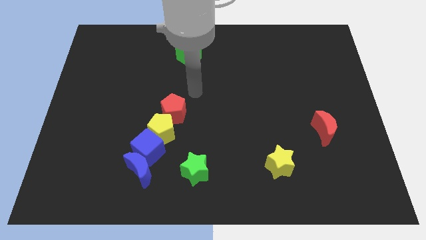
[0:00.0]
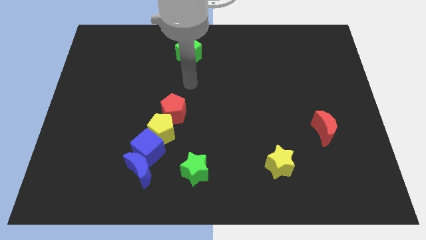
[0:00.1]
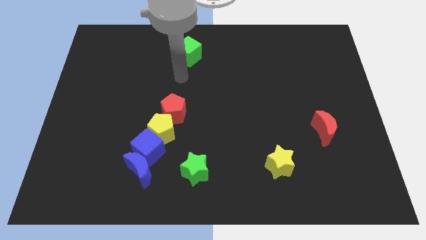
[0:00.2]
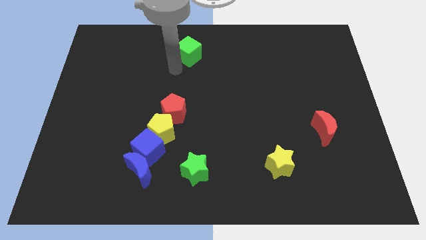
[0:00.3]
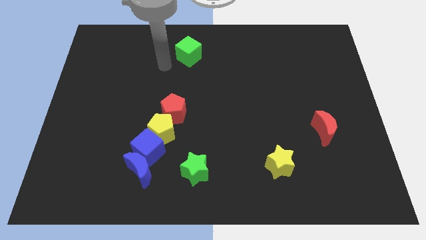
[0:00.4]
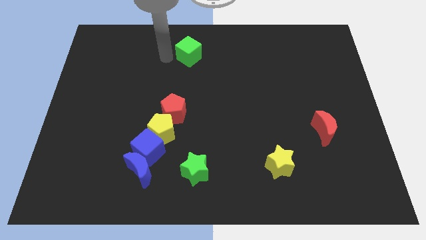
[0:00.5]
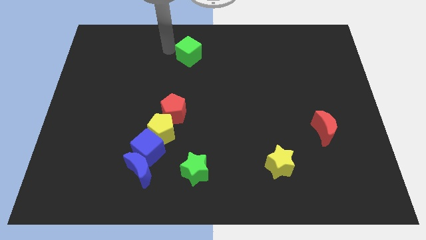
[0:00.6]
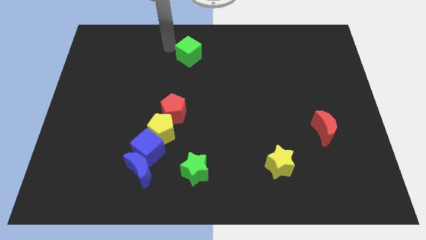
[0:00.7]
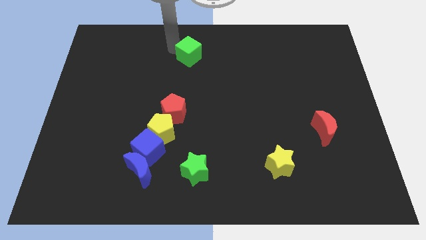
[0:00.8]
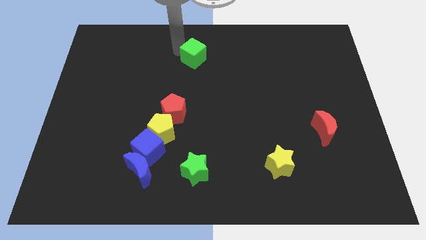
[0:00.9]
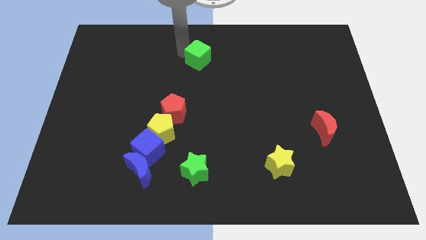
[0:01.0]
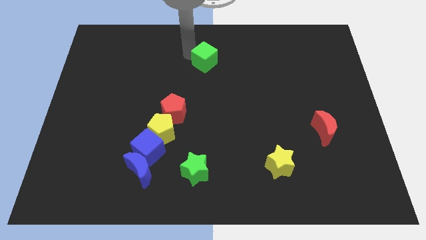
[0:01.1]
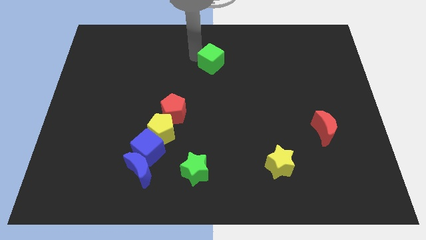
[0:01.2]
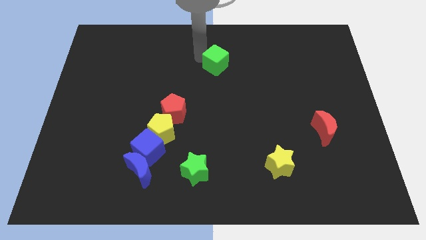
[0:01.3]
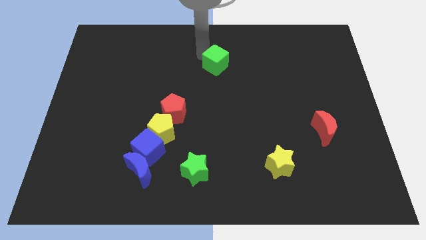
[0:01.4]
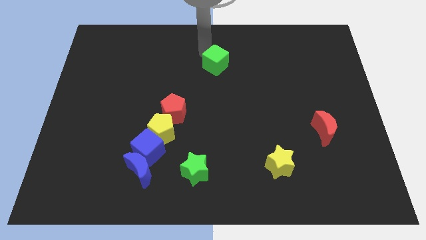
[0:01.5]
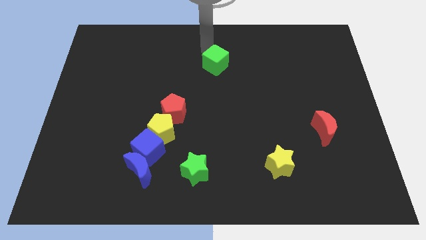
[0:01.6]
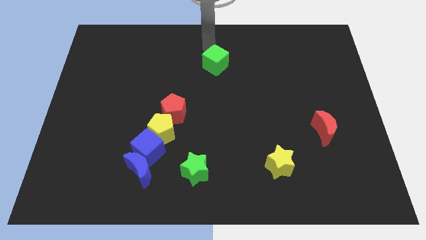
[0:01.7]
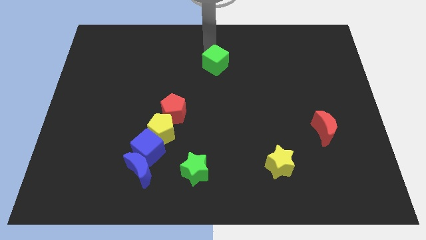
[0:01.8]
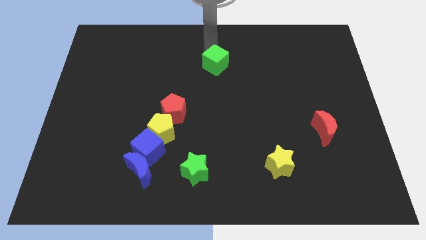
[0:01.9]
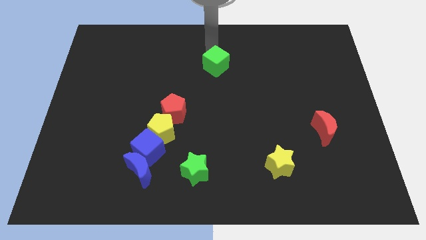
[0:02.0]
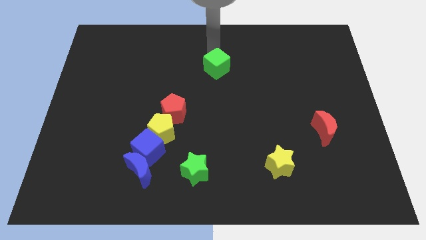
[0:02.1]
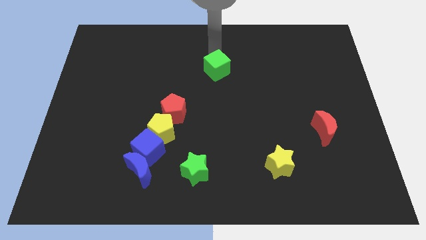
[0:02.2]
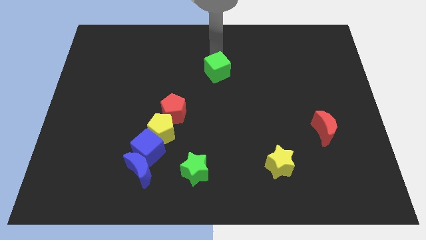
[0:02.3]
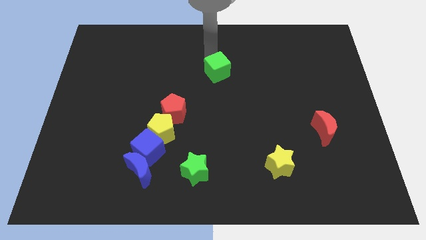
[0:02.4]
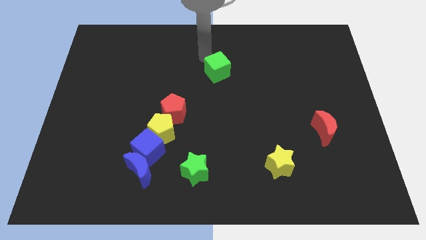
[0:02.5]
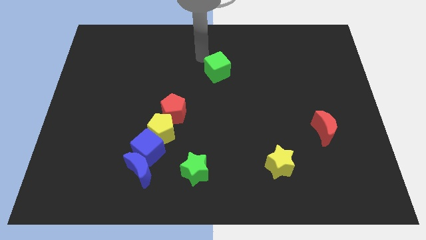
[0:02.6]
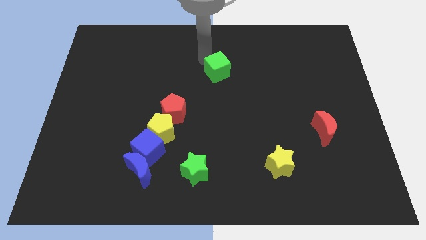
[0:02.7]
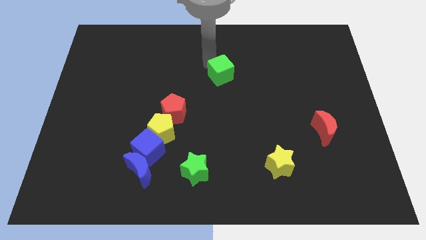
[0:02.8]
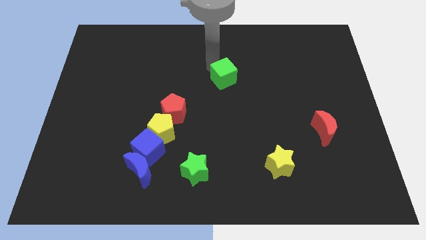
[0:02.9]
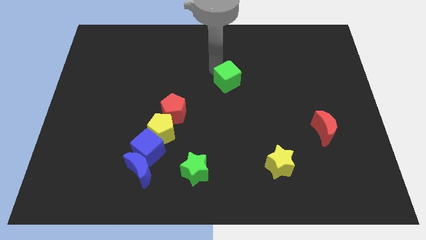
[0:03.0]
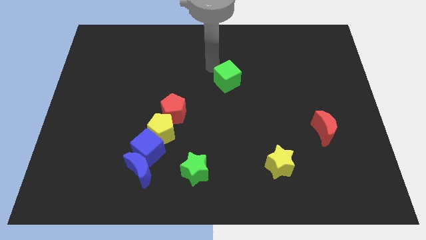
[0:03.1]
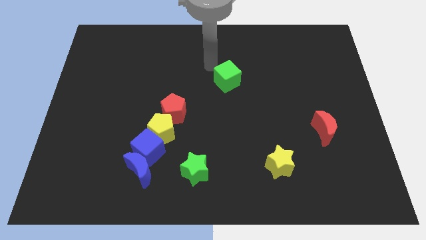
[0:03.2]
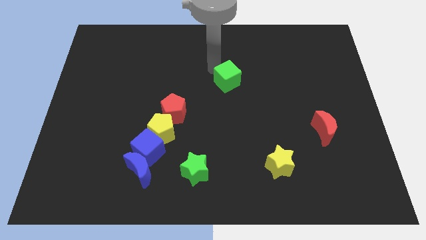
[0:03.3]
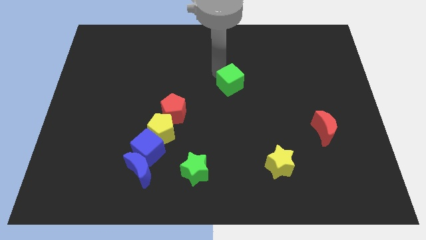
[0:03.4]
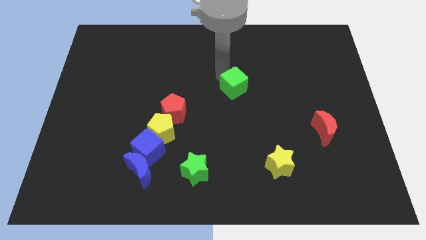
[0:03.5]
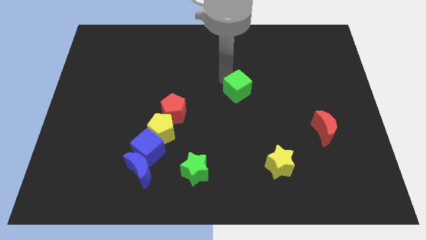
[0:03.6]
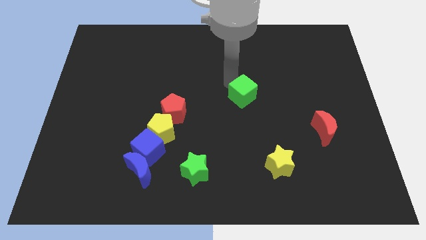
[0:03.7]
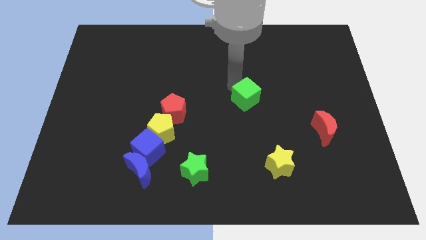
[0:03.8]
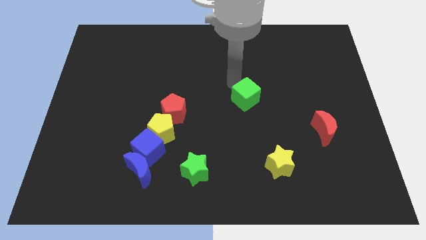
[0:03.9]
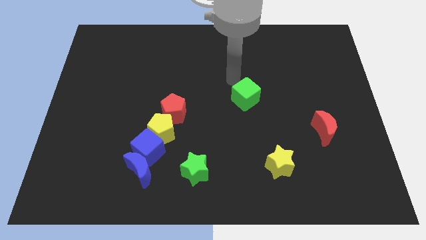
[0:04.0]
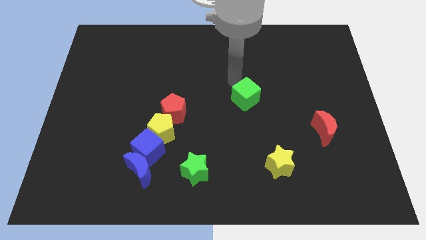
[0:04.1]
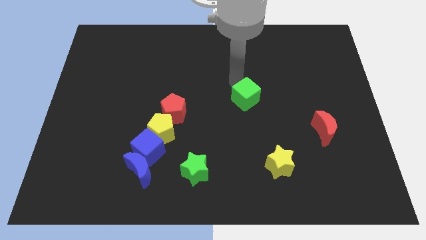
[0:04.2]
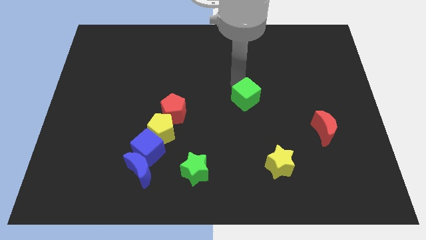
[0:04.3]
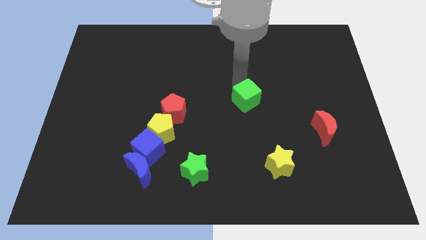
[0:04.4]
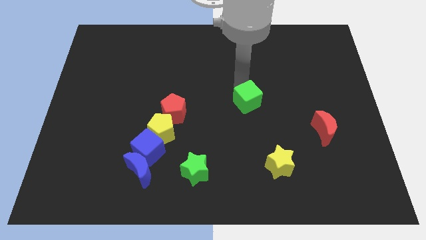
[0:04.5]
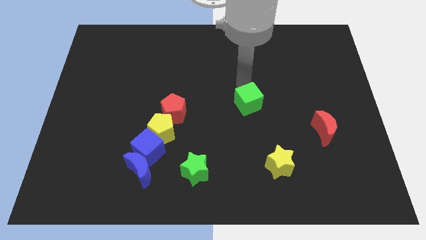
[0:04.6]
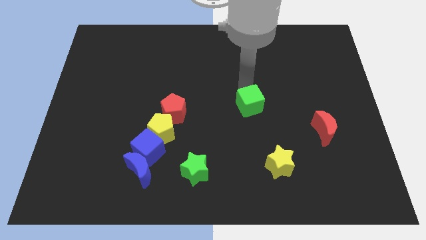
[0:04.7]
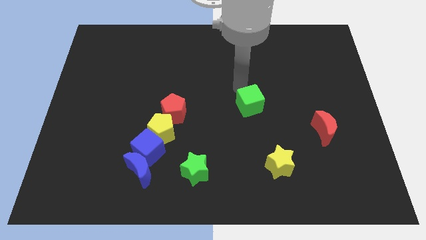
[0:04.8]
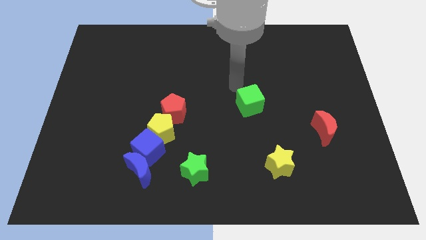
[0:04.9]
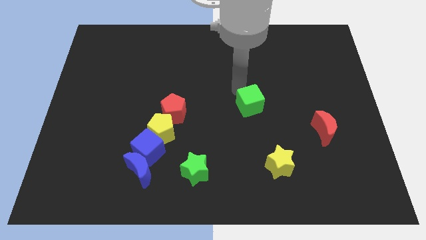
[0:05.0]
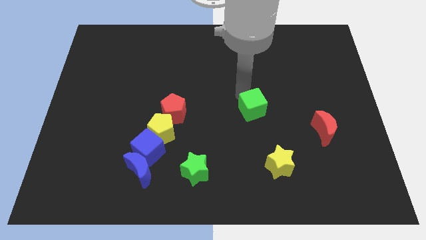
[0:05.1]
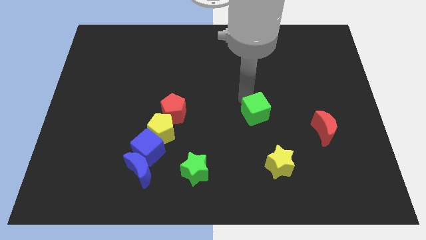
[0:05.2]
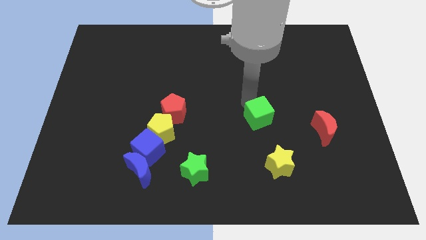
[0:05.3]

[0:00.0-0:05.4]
move the green cube left of the red moon

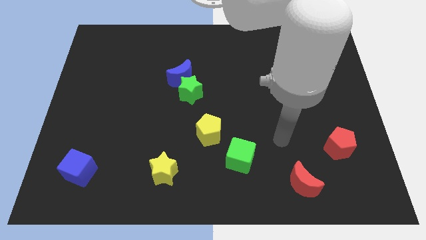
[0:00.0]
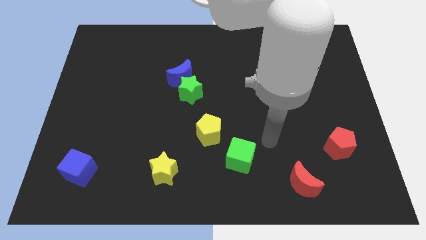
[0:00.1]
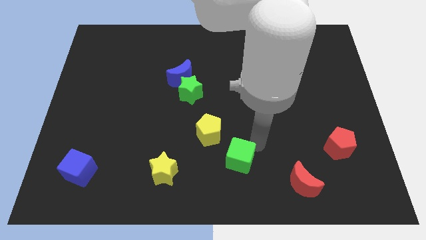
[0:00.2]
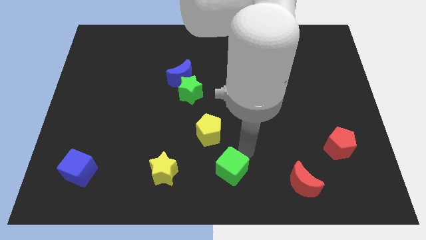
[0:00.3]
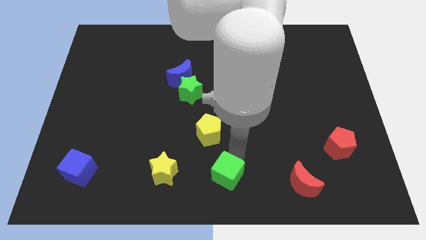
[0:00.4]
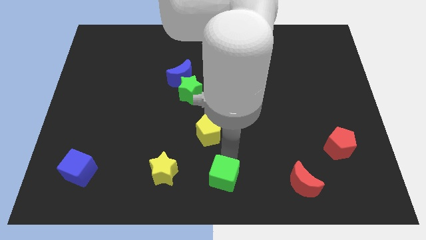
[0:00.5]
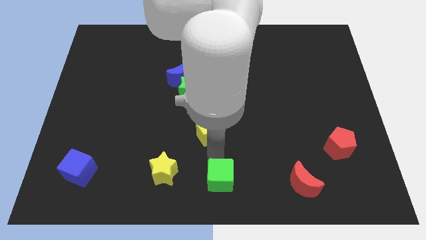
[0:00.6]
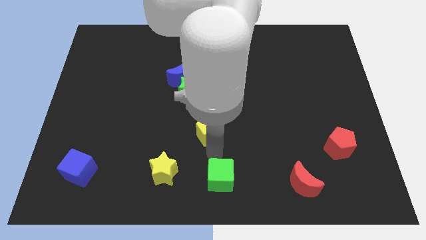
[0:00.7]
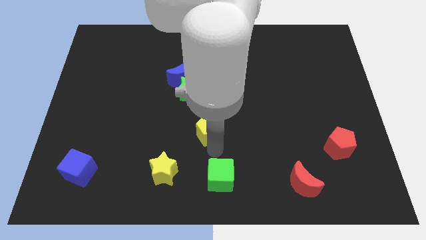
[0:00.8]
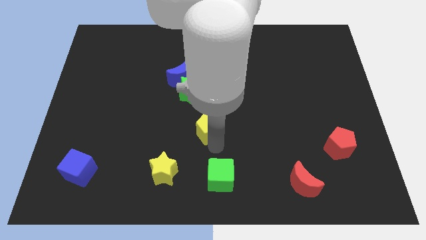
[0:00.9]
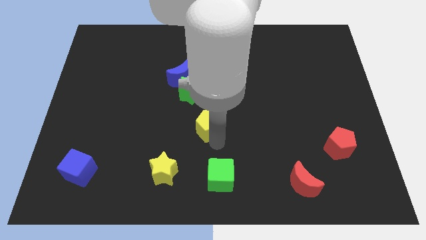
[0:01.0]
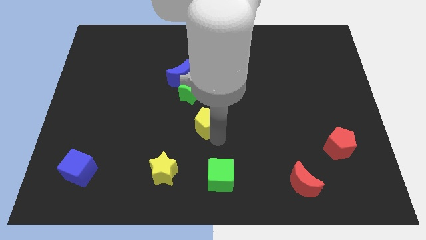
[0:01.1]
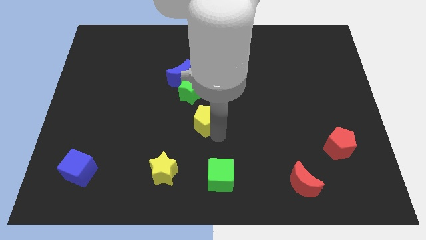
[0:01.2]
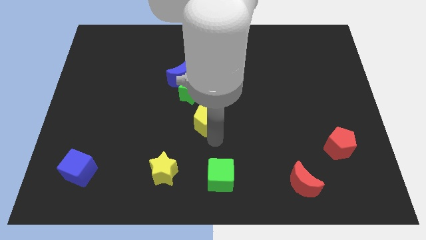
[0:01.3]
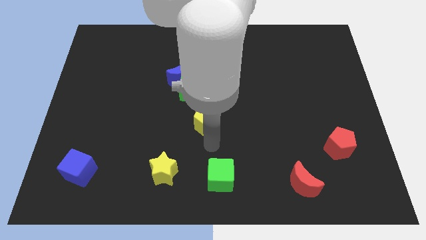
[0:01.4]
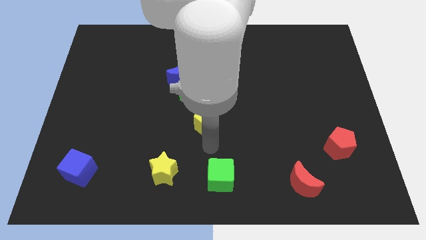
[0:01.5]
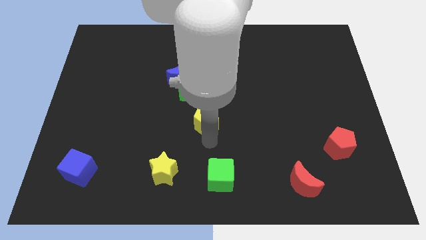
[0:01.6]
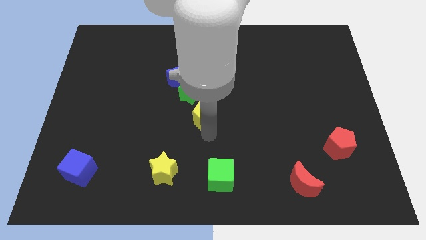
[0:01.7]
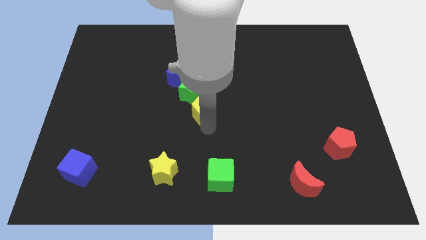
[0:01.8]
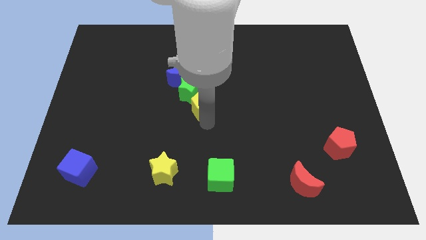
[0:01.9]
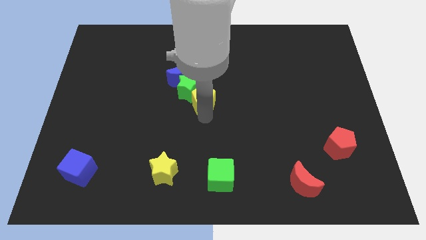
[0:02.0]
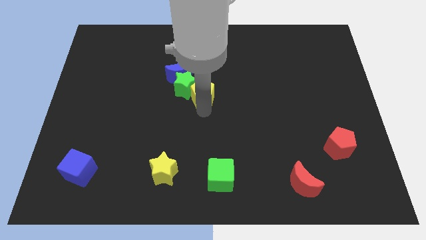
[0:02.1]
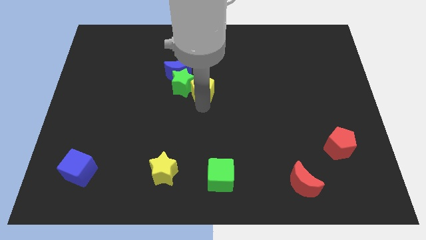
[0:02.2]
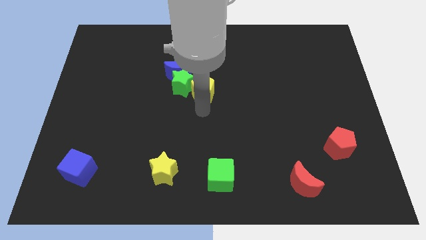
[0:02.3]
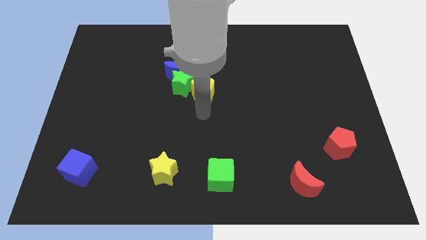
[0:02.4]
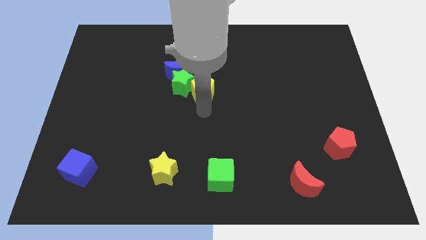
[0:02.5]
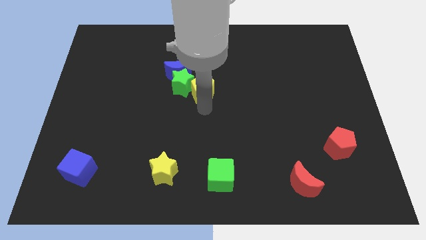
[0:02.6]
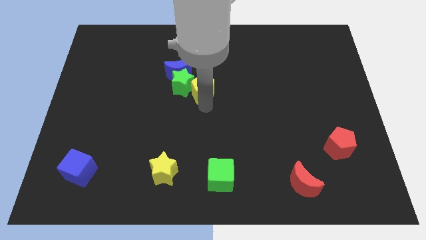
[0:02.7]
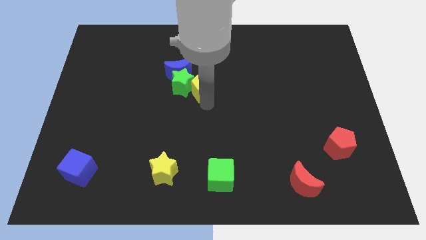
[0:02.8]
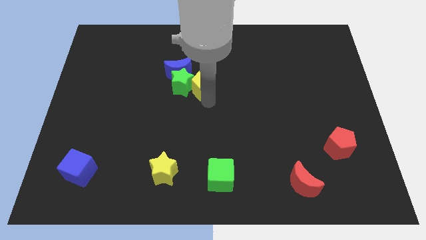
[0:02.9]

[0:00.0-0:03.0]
slide the yellow pentagon diagonally up and to the right of the green star
